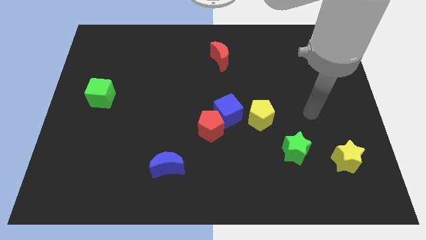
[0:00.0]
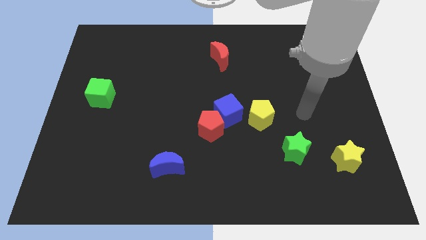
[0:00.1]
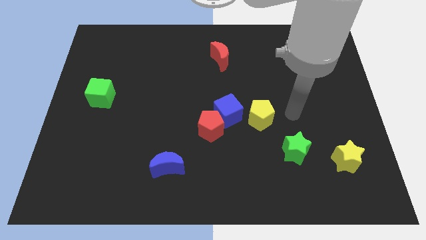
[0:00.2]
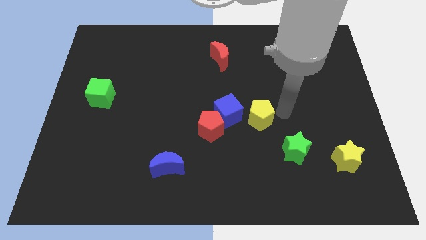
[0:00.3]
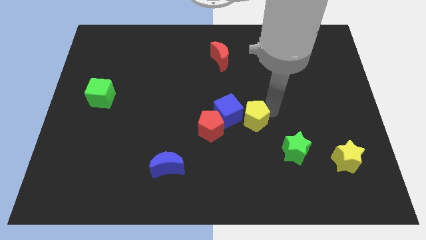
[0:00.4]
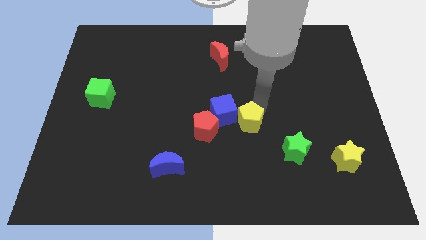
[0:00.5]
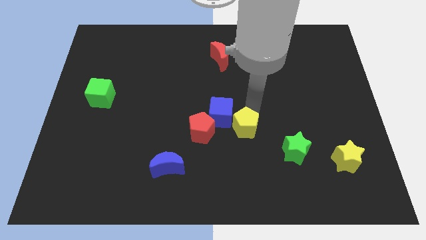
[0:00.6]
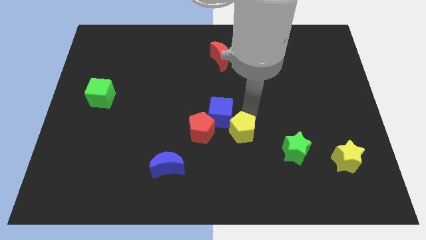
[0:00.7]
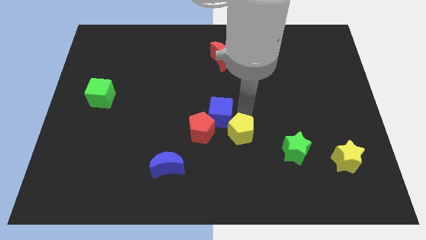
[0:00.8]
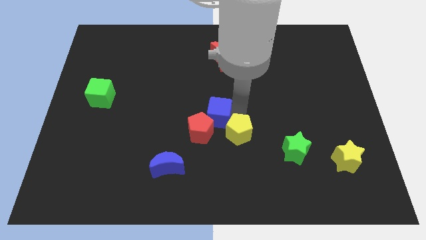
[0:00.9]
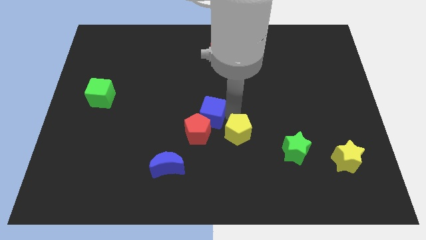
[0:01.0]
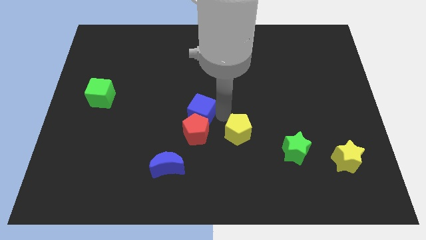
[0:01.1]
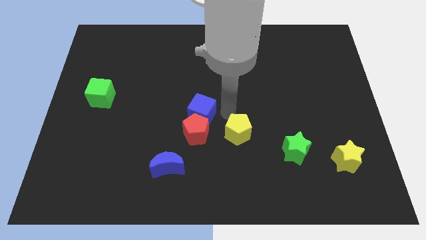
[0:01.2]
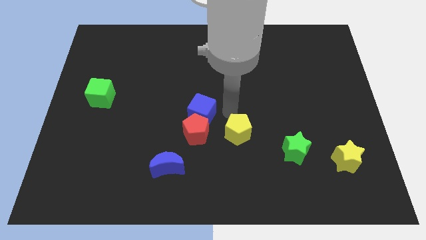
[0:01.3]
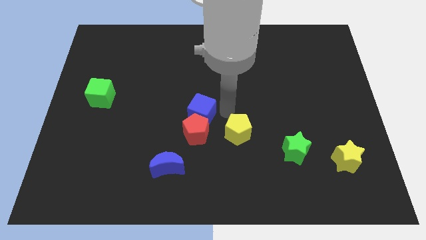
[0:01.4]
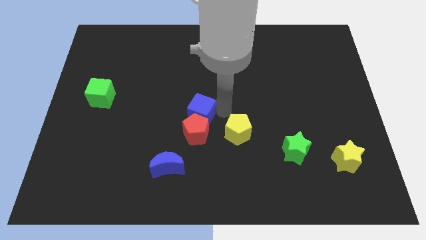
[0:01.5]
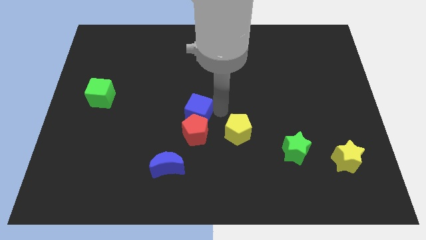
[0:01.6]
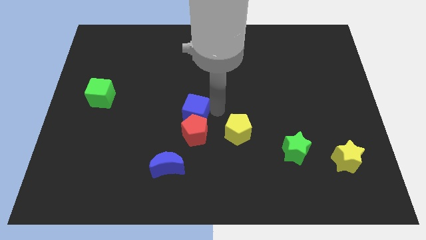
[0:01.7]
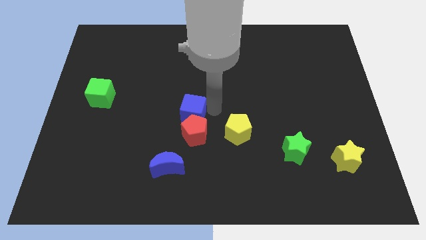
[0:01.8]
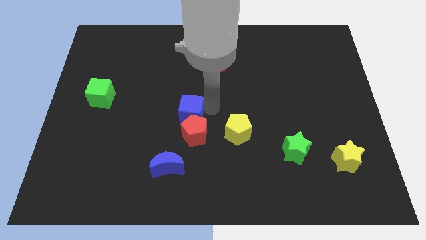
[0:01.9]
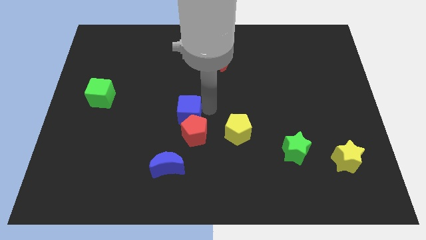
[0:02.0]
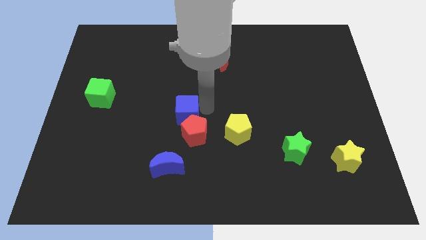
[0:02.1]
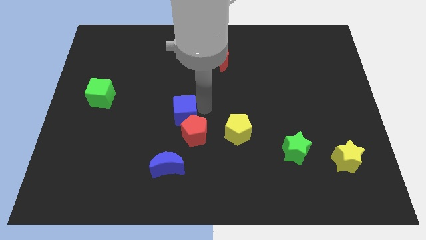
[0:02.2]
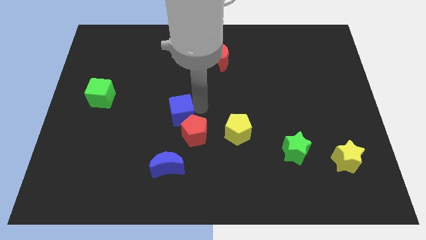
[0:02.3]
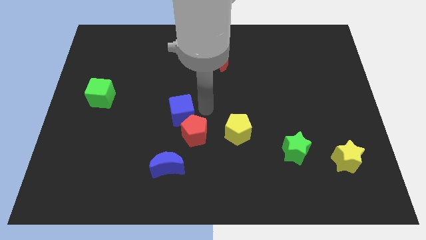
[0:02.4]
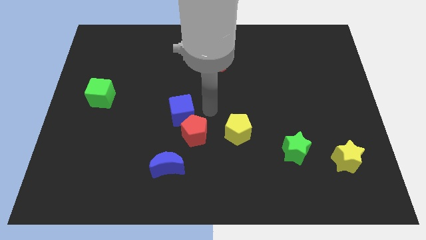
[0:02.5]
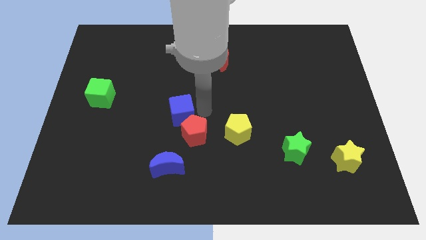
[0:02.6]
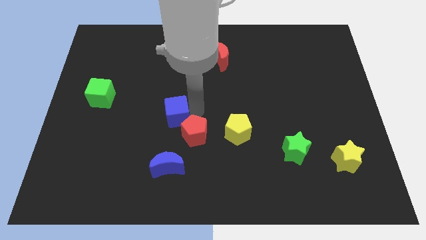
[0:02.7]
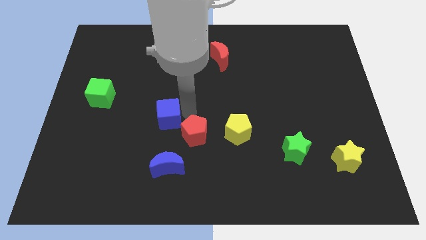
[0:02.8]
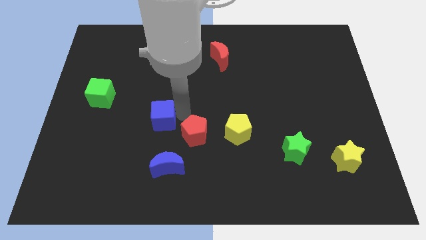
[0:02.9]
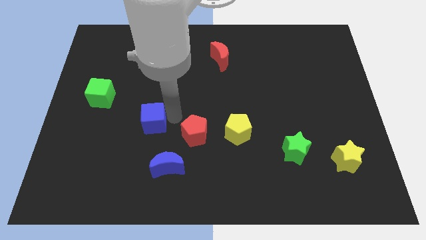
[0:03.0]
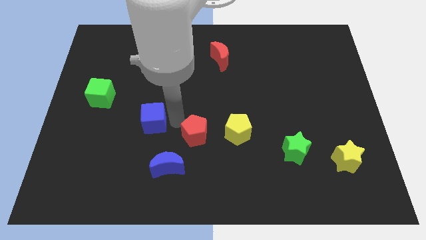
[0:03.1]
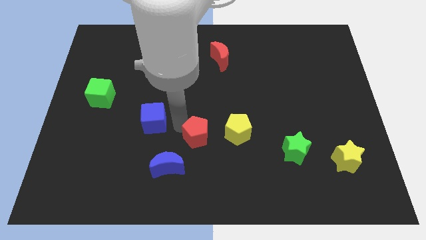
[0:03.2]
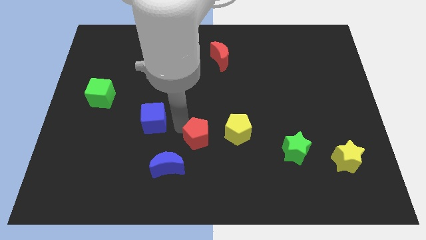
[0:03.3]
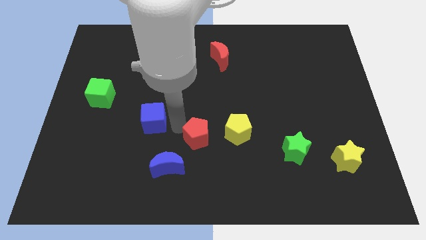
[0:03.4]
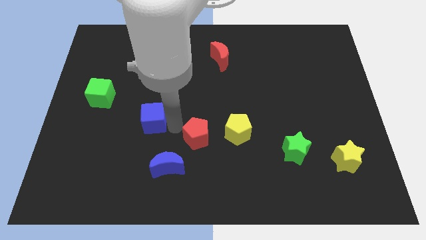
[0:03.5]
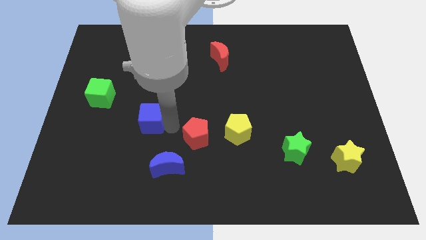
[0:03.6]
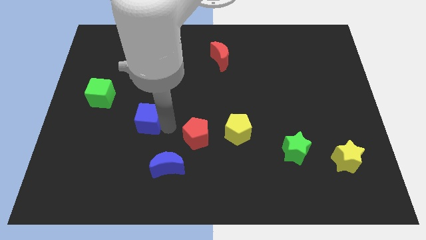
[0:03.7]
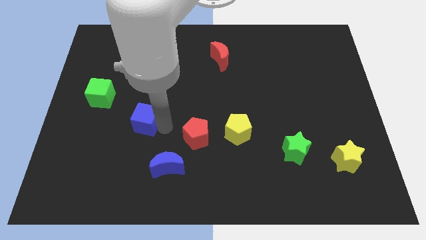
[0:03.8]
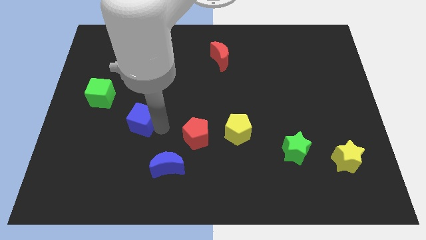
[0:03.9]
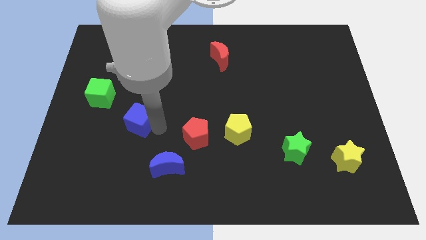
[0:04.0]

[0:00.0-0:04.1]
slide the blue cube to the left

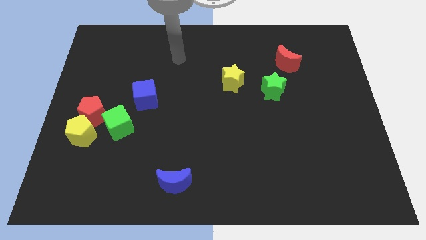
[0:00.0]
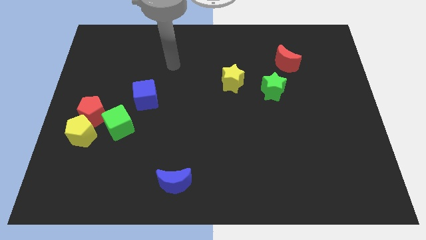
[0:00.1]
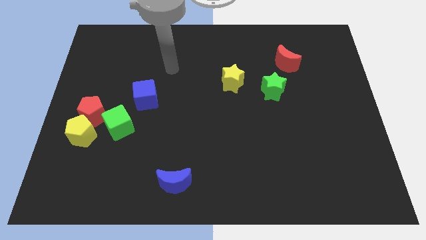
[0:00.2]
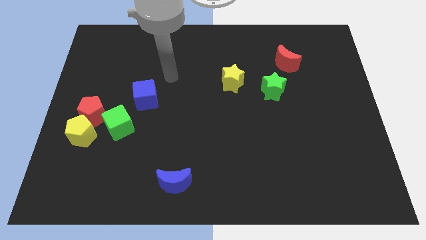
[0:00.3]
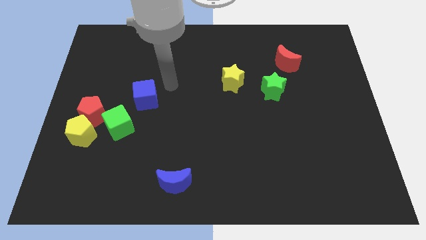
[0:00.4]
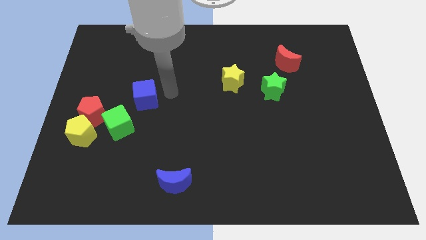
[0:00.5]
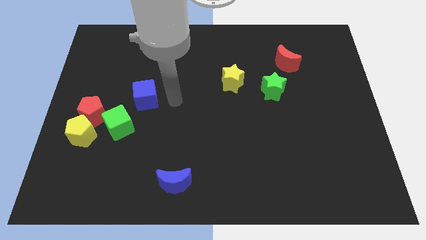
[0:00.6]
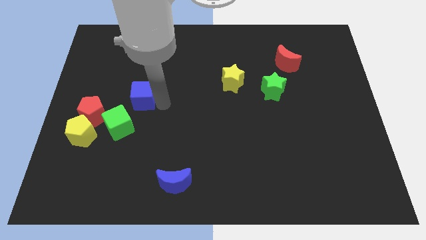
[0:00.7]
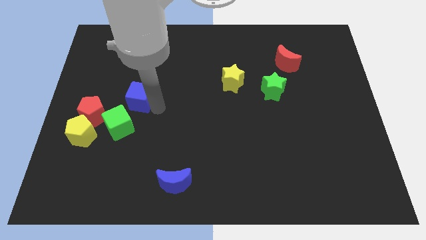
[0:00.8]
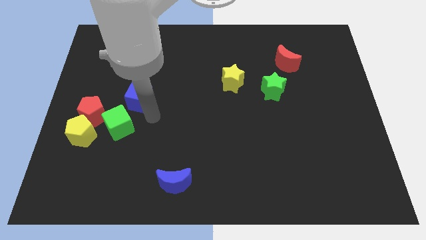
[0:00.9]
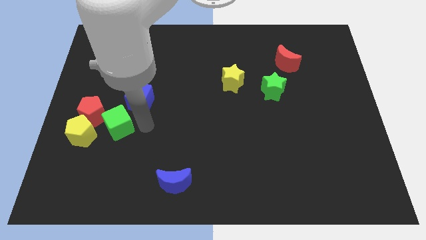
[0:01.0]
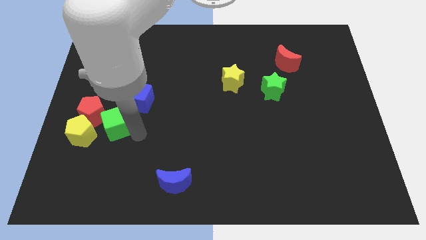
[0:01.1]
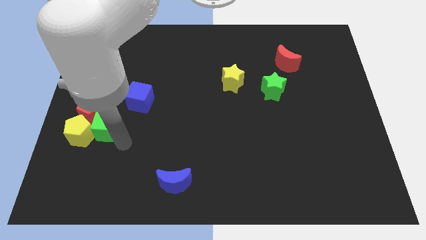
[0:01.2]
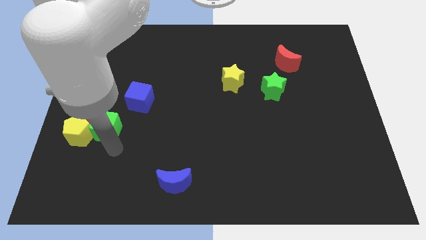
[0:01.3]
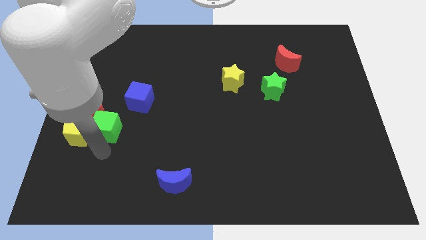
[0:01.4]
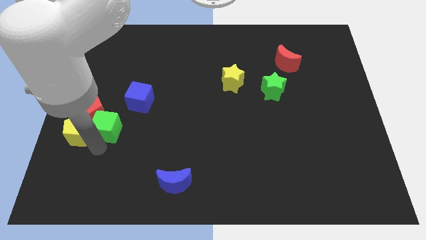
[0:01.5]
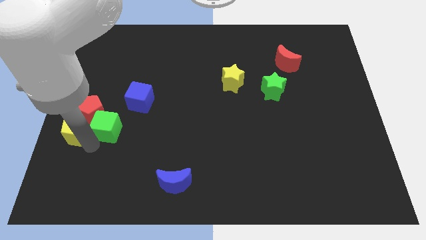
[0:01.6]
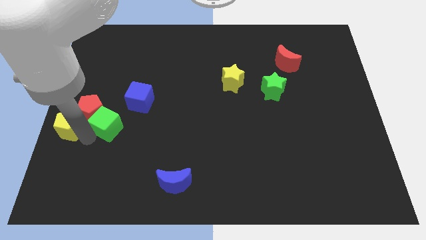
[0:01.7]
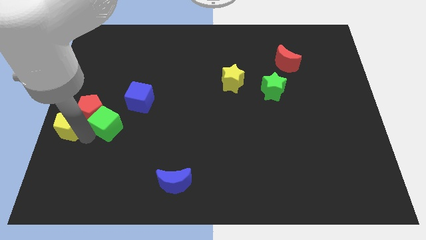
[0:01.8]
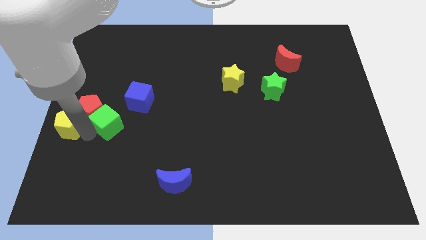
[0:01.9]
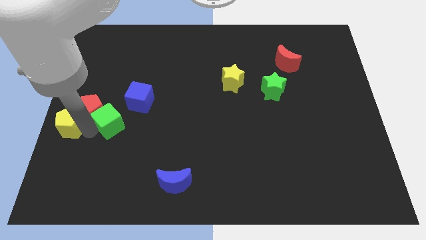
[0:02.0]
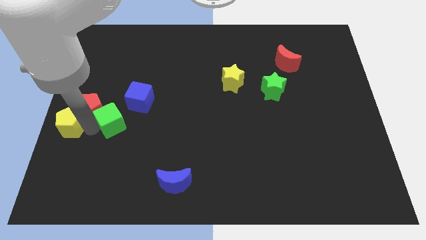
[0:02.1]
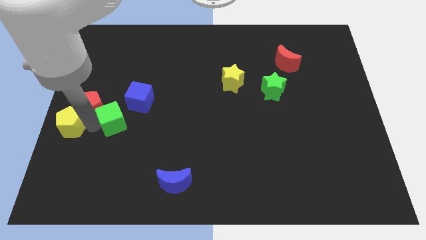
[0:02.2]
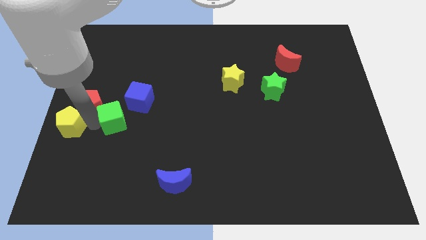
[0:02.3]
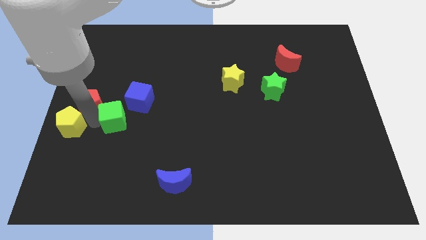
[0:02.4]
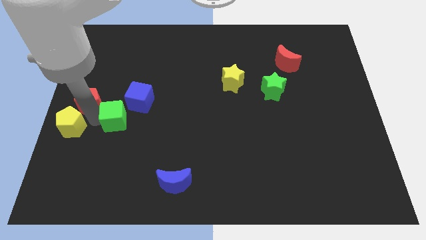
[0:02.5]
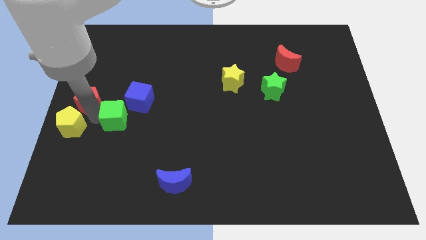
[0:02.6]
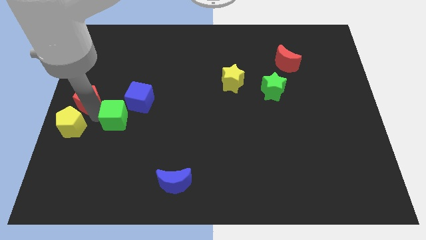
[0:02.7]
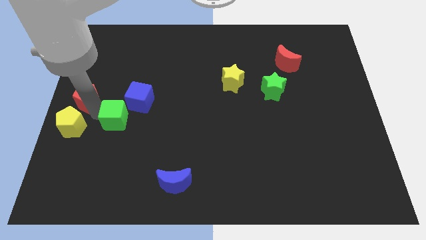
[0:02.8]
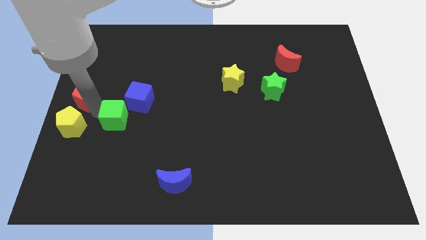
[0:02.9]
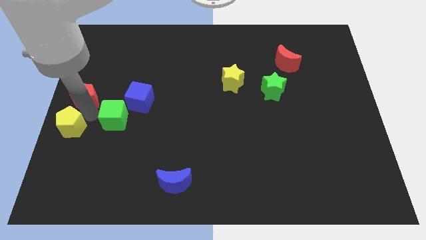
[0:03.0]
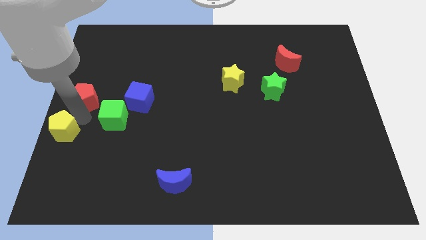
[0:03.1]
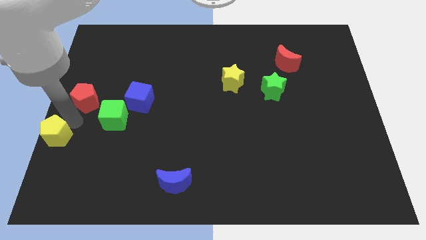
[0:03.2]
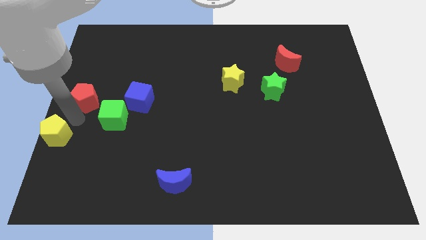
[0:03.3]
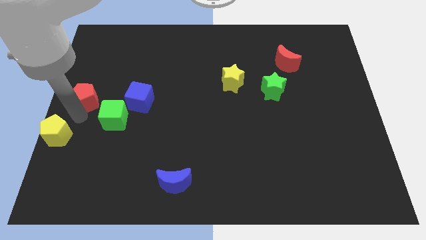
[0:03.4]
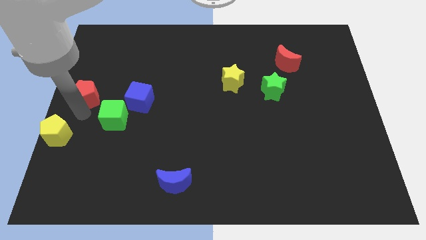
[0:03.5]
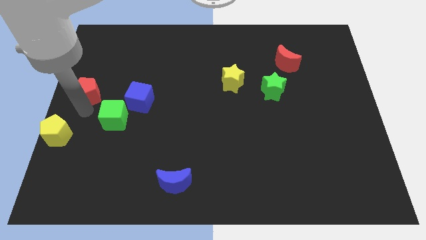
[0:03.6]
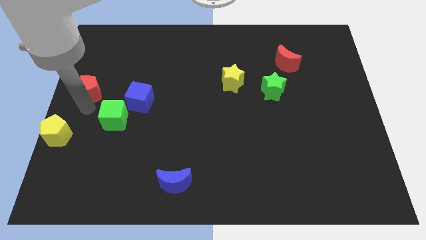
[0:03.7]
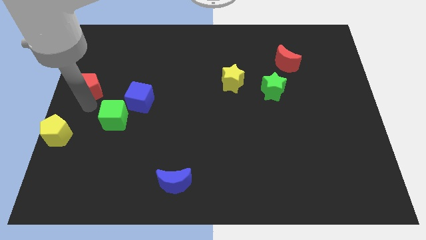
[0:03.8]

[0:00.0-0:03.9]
slide the red pentagon upwards slightly
